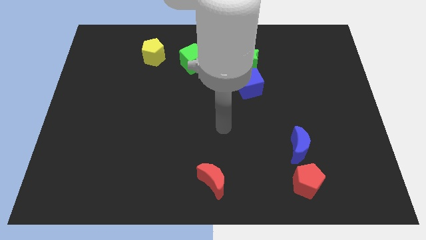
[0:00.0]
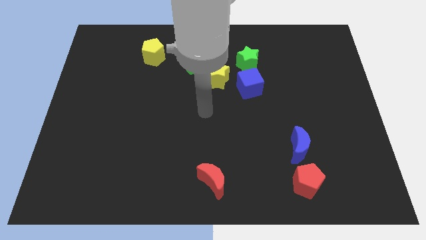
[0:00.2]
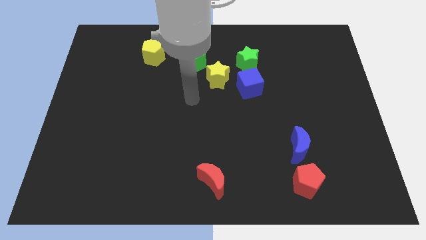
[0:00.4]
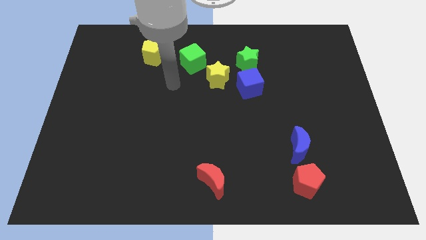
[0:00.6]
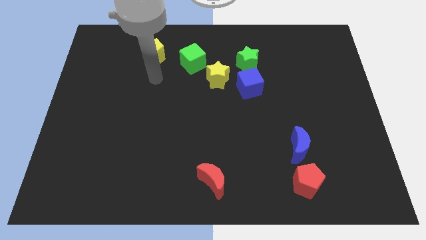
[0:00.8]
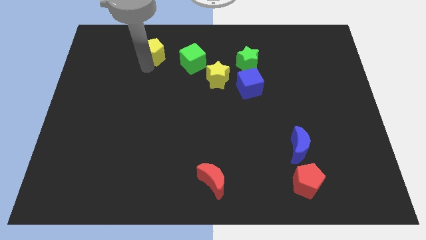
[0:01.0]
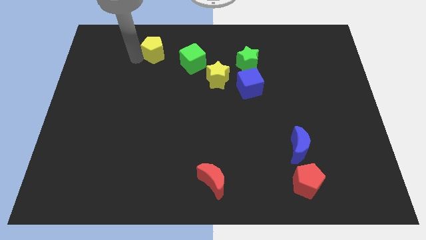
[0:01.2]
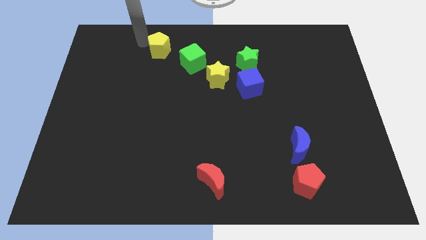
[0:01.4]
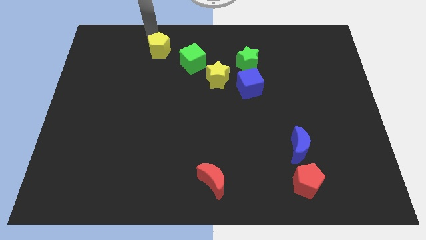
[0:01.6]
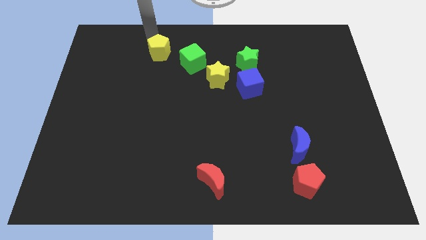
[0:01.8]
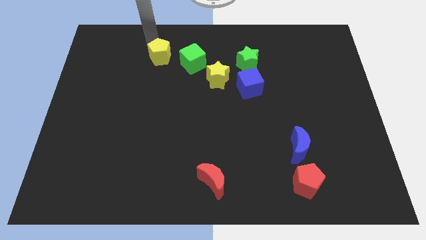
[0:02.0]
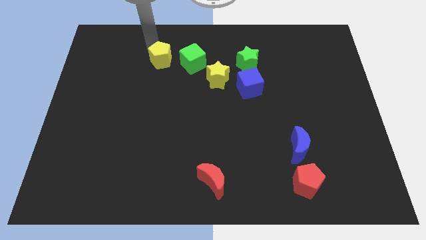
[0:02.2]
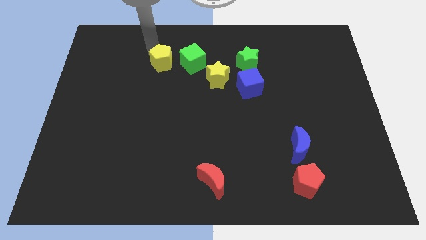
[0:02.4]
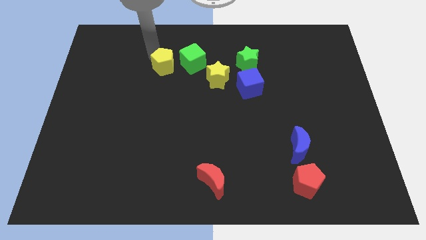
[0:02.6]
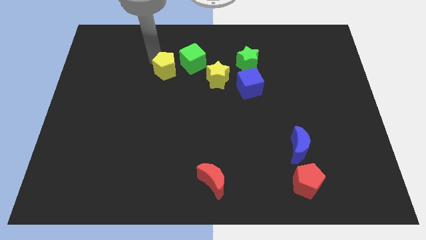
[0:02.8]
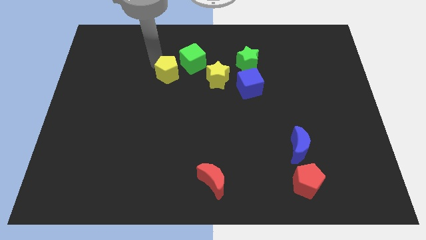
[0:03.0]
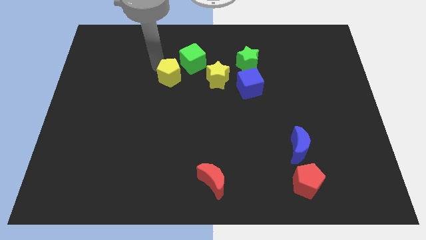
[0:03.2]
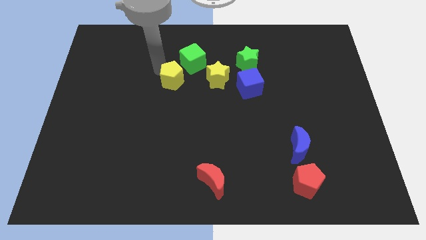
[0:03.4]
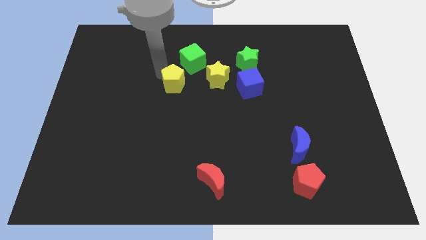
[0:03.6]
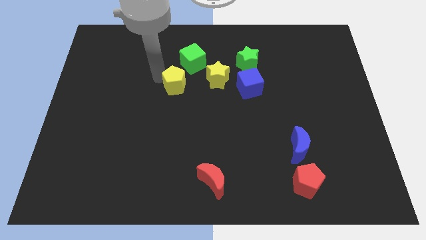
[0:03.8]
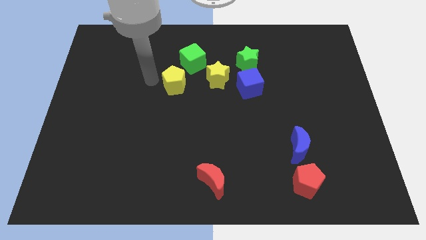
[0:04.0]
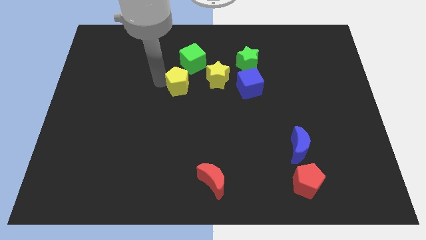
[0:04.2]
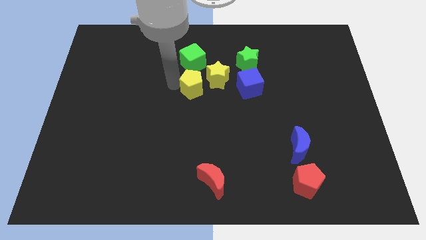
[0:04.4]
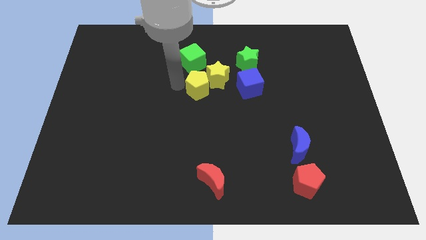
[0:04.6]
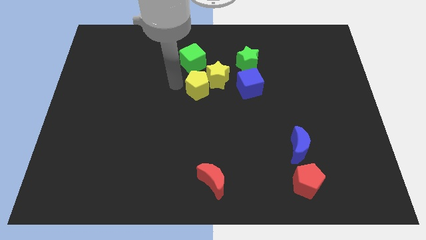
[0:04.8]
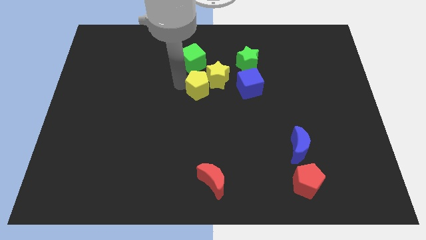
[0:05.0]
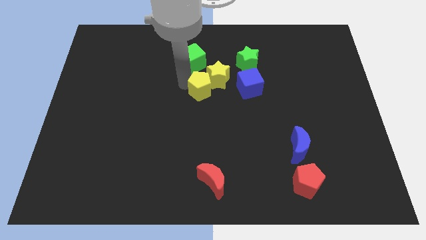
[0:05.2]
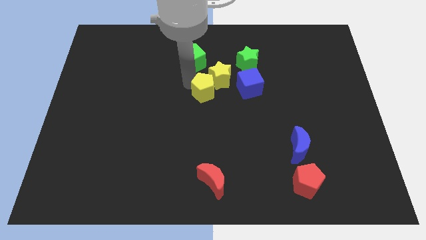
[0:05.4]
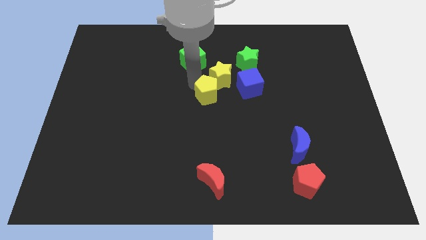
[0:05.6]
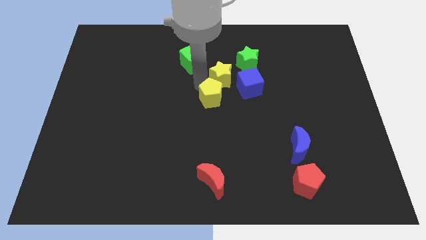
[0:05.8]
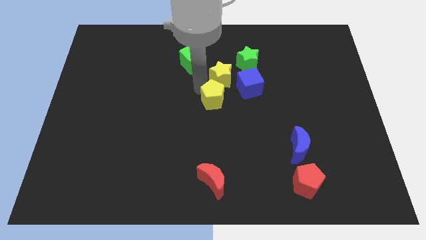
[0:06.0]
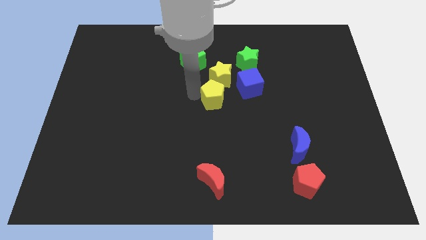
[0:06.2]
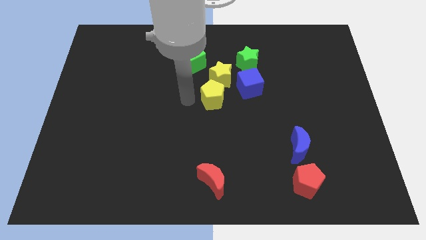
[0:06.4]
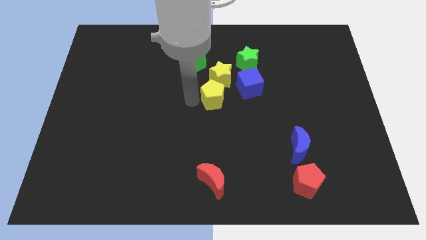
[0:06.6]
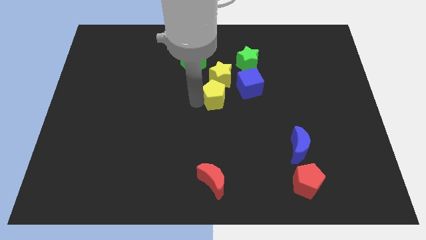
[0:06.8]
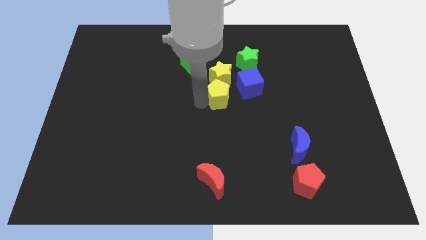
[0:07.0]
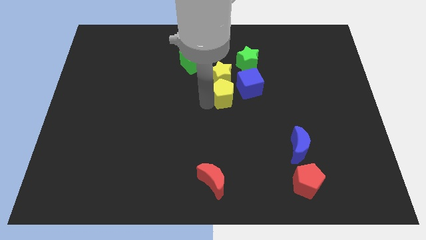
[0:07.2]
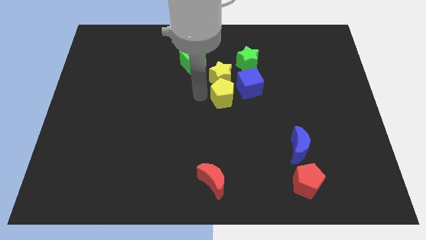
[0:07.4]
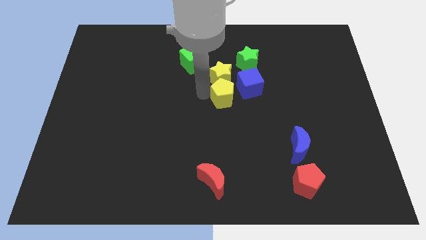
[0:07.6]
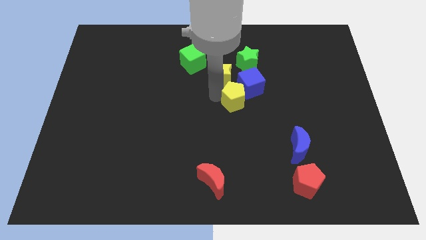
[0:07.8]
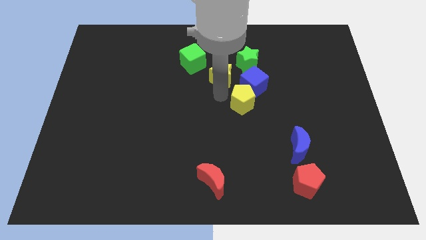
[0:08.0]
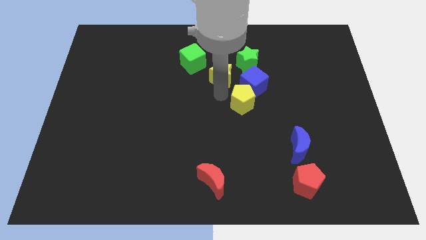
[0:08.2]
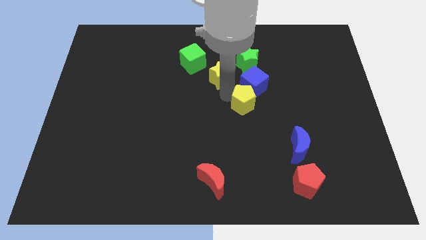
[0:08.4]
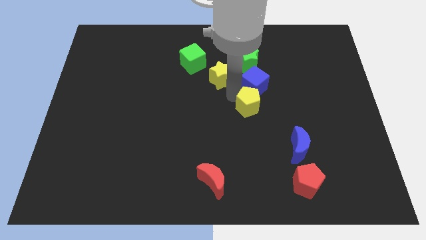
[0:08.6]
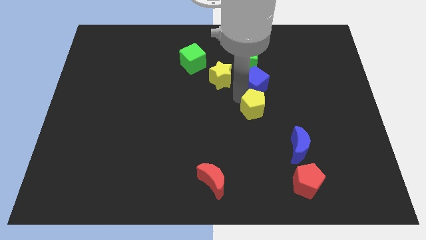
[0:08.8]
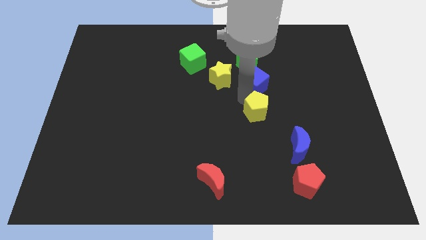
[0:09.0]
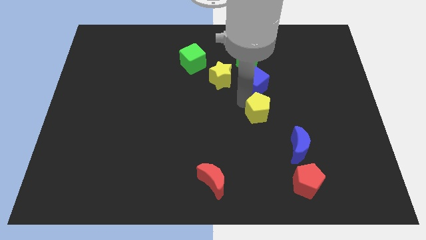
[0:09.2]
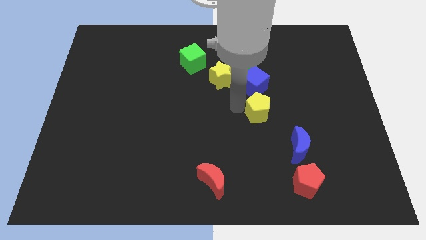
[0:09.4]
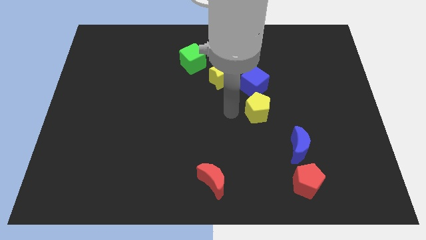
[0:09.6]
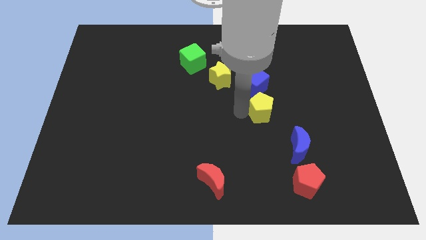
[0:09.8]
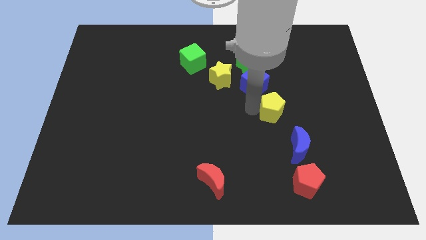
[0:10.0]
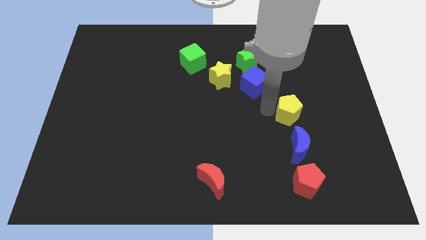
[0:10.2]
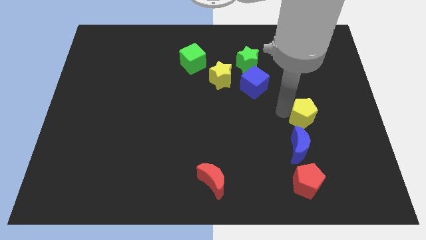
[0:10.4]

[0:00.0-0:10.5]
push the yellow pentagon to the top right of the blue moon

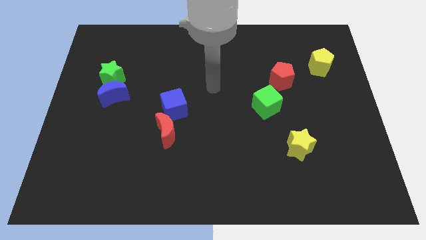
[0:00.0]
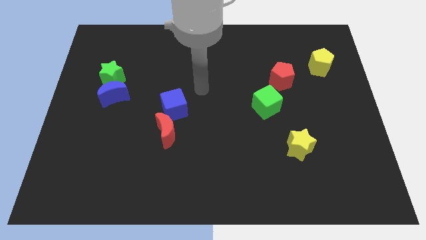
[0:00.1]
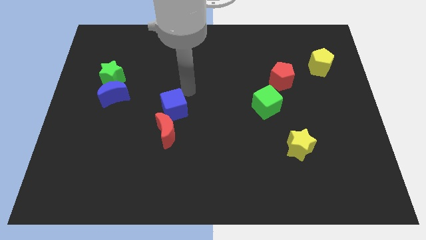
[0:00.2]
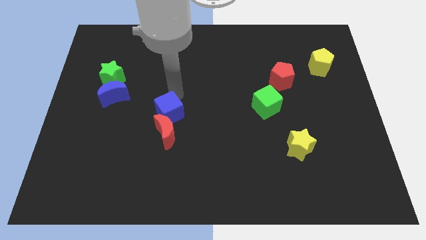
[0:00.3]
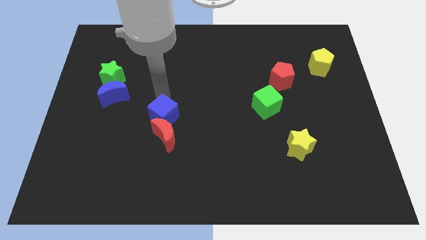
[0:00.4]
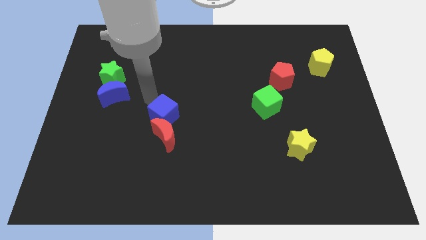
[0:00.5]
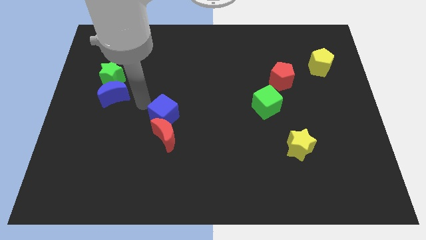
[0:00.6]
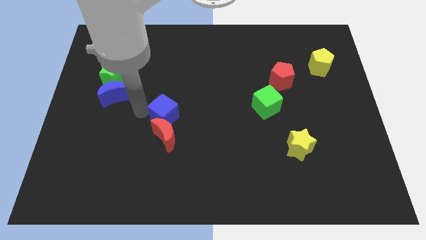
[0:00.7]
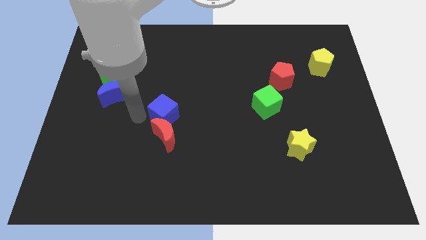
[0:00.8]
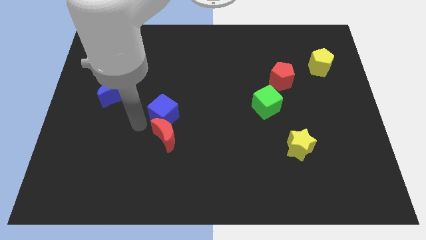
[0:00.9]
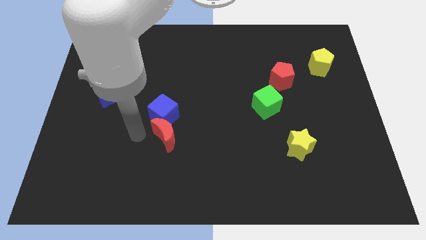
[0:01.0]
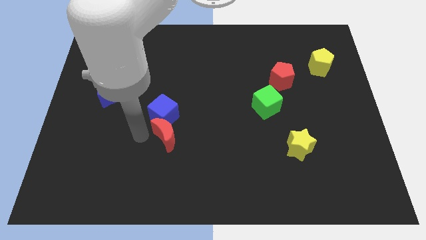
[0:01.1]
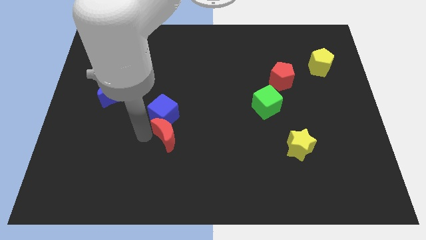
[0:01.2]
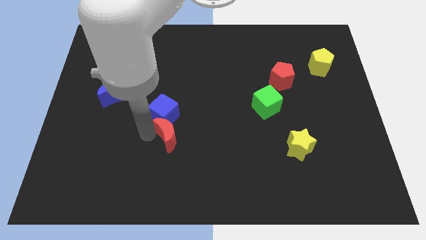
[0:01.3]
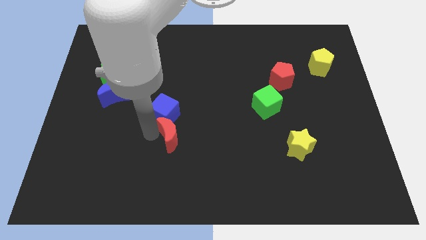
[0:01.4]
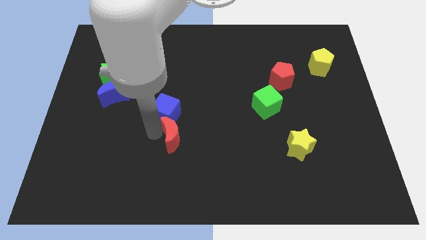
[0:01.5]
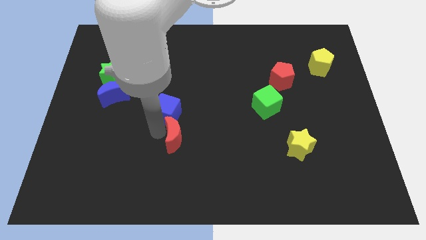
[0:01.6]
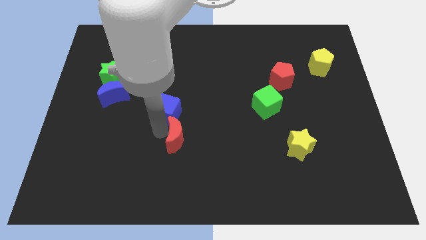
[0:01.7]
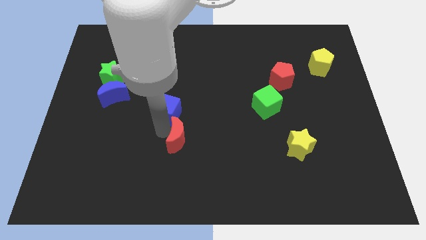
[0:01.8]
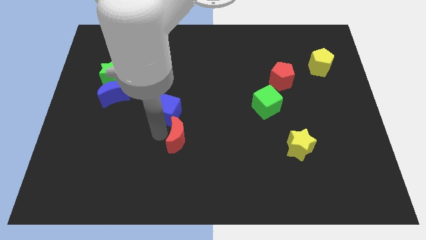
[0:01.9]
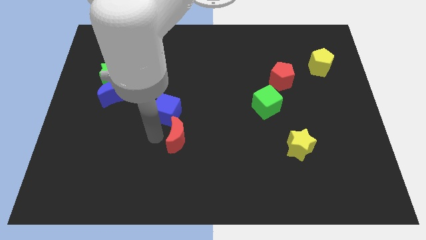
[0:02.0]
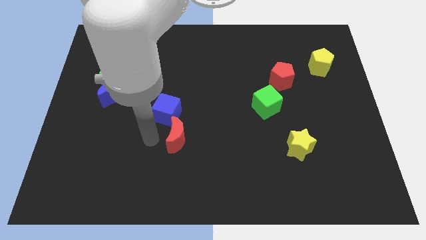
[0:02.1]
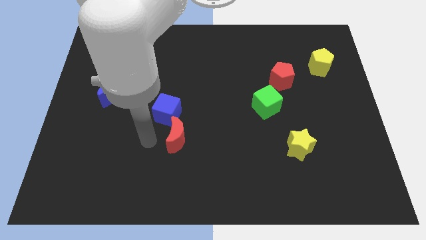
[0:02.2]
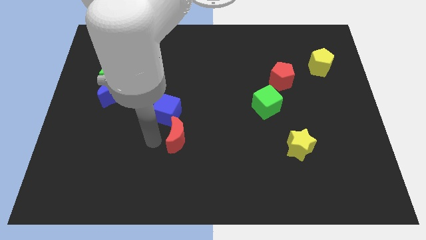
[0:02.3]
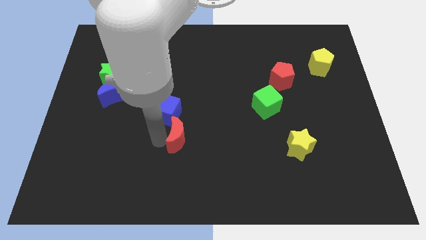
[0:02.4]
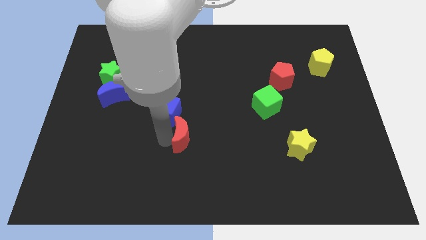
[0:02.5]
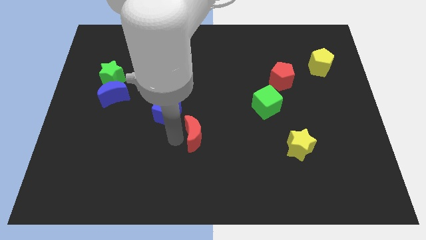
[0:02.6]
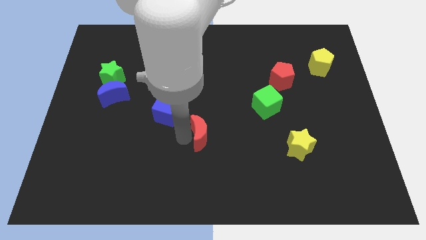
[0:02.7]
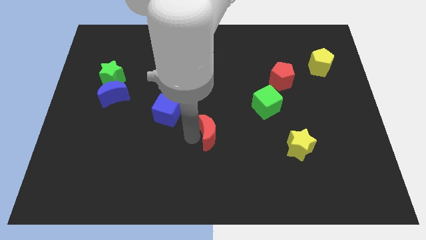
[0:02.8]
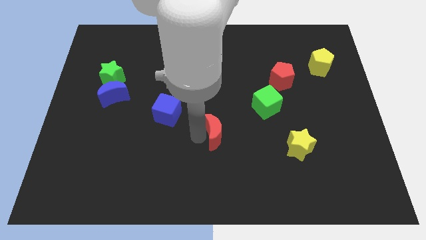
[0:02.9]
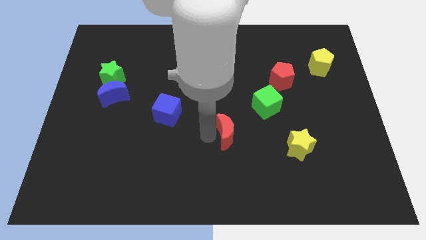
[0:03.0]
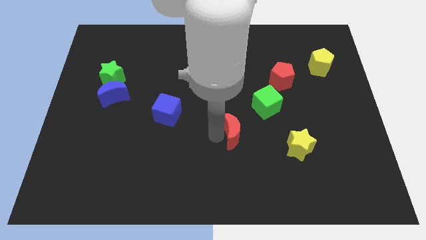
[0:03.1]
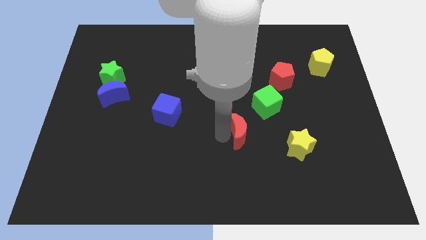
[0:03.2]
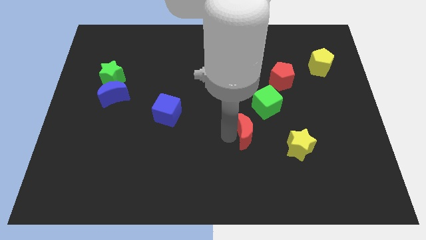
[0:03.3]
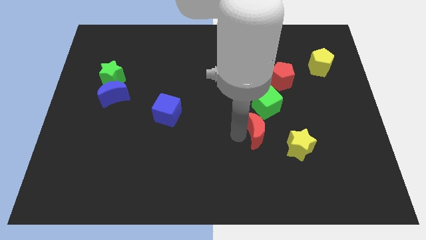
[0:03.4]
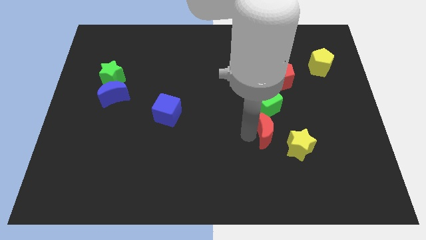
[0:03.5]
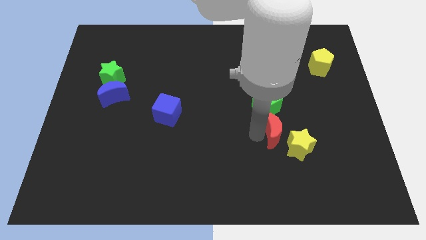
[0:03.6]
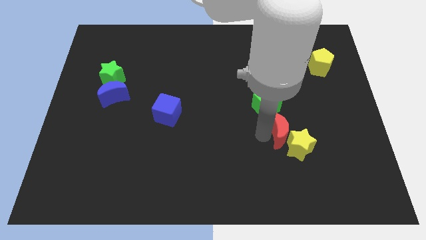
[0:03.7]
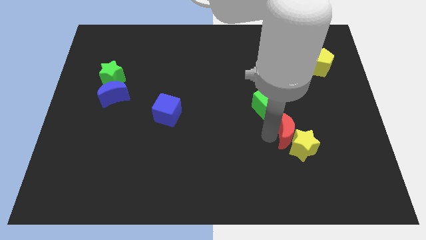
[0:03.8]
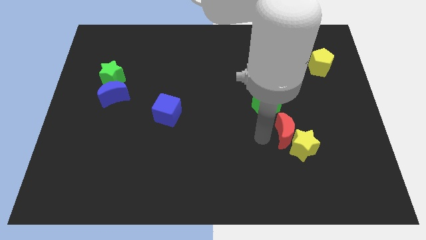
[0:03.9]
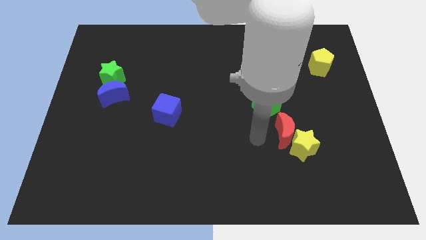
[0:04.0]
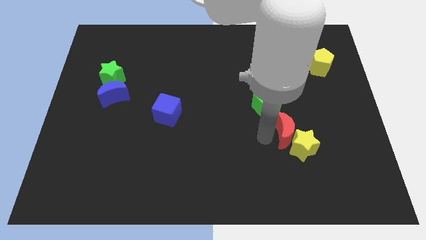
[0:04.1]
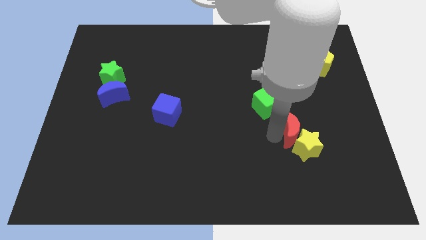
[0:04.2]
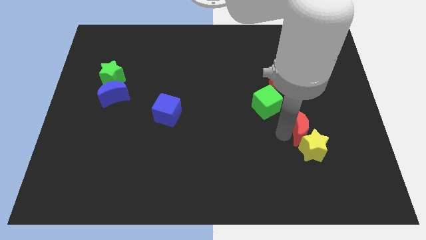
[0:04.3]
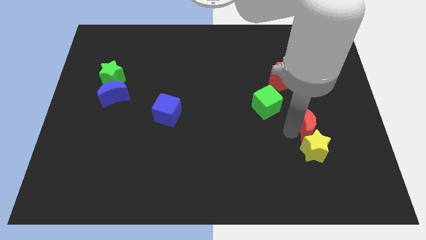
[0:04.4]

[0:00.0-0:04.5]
put the red moon diagonally up and to the right of the yellow star
